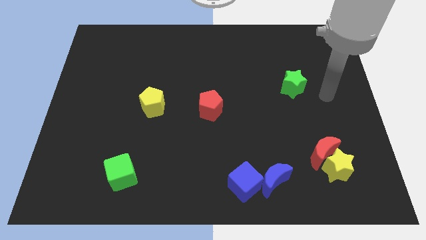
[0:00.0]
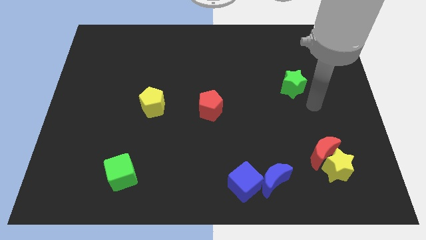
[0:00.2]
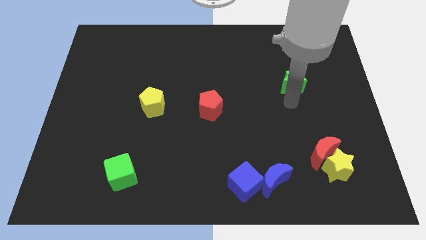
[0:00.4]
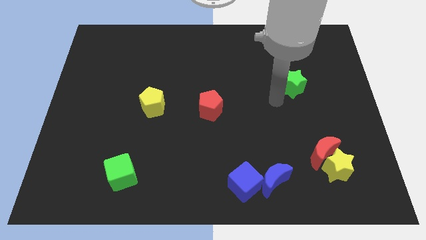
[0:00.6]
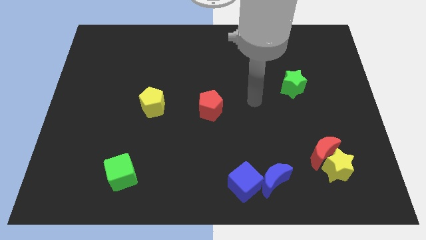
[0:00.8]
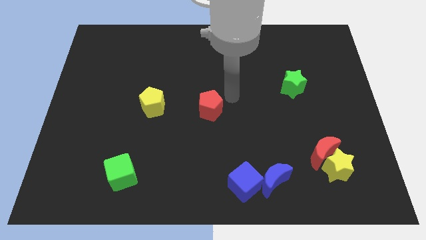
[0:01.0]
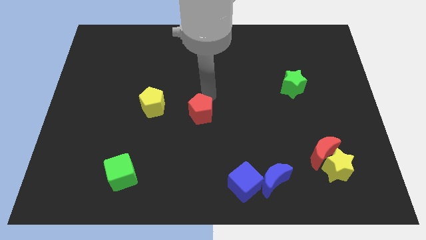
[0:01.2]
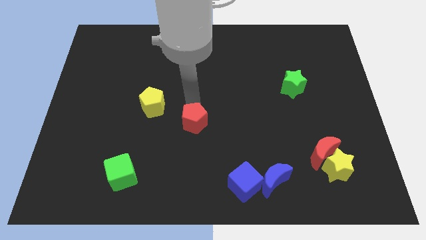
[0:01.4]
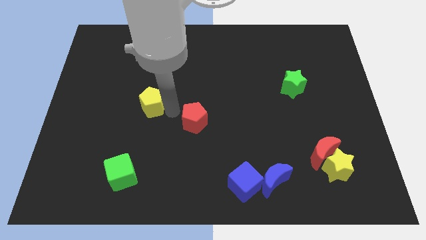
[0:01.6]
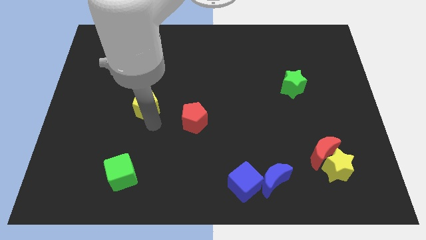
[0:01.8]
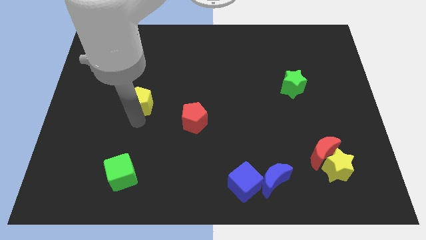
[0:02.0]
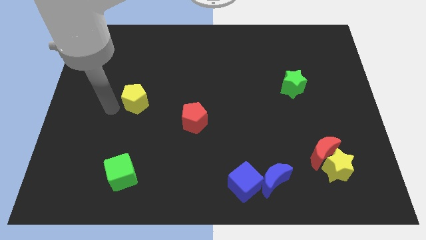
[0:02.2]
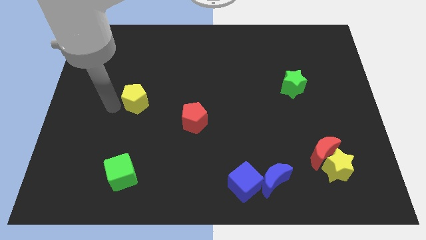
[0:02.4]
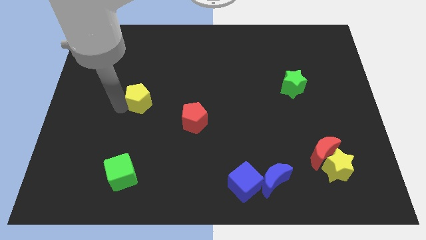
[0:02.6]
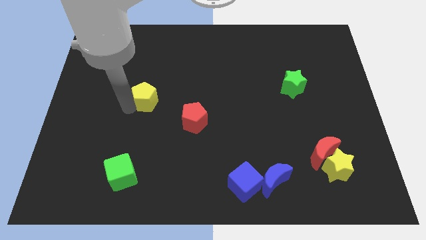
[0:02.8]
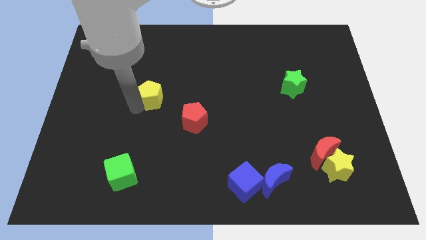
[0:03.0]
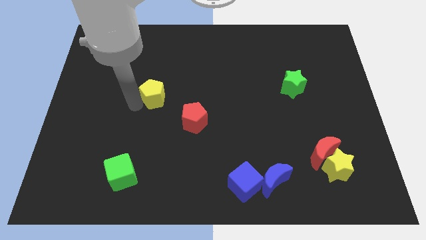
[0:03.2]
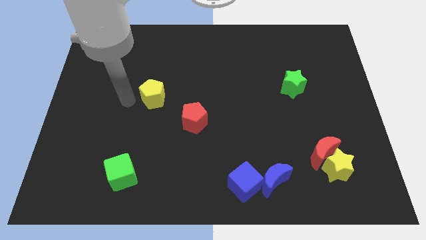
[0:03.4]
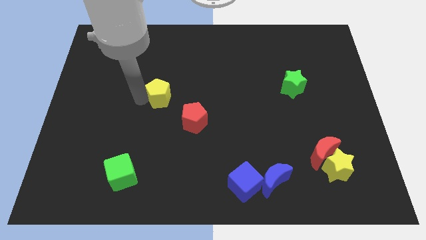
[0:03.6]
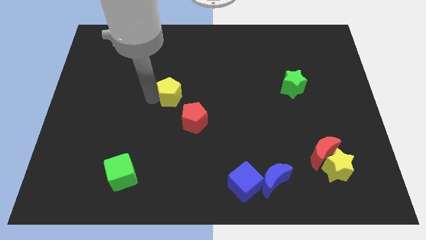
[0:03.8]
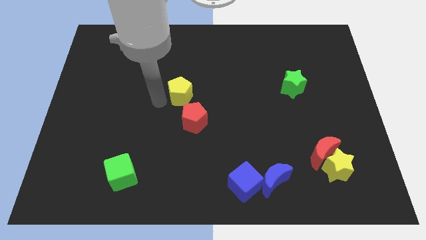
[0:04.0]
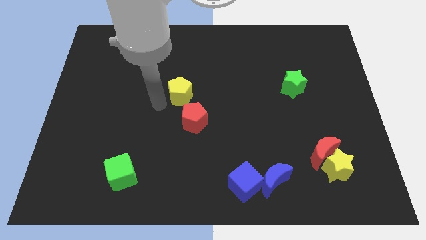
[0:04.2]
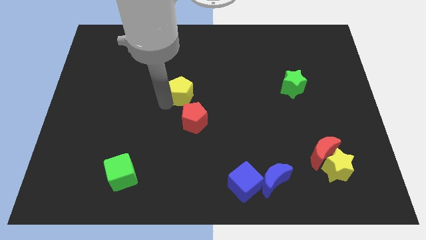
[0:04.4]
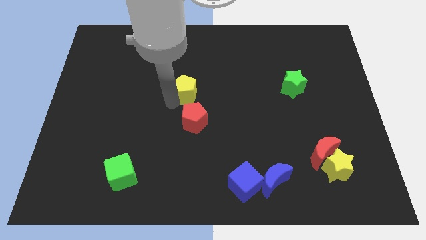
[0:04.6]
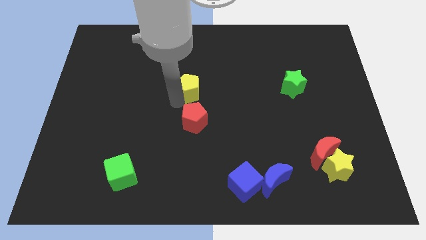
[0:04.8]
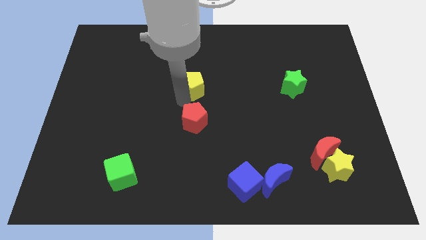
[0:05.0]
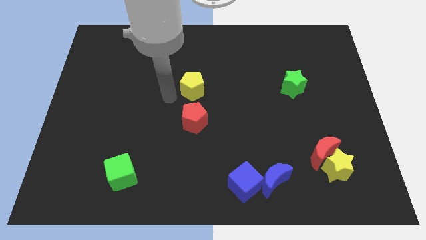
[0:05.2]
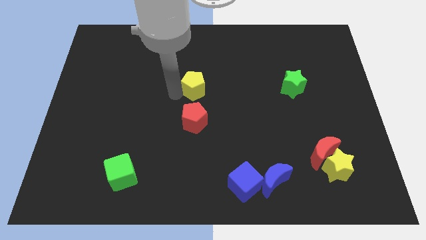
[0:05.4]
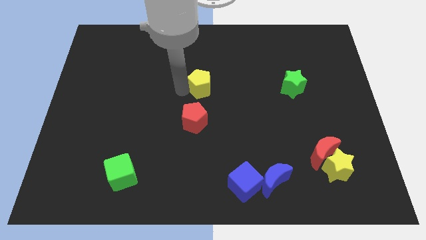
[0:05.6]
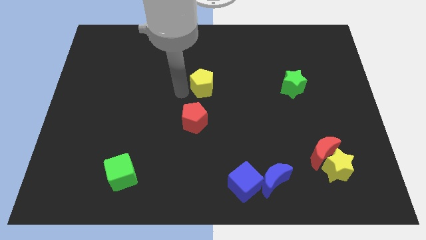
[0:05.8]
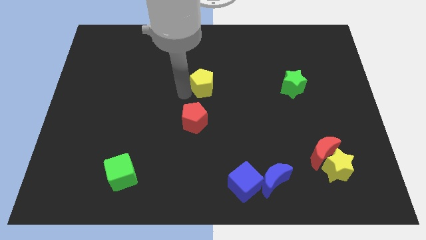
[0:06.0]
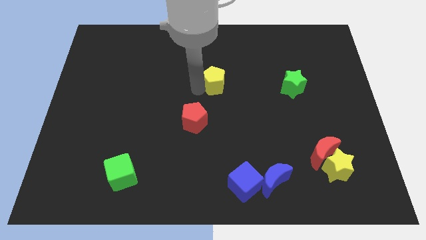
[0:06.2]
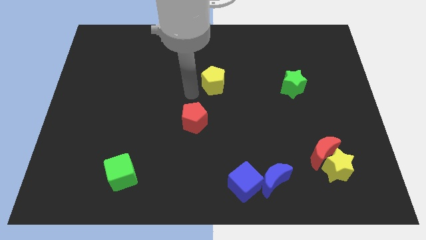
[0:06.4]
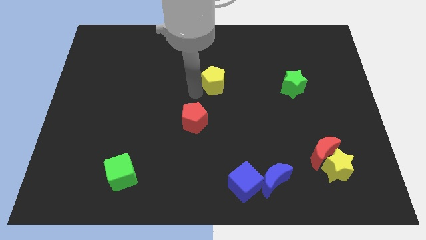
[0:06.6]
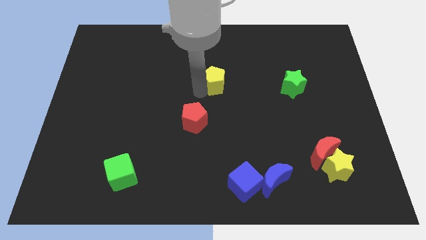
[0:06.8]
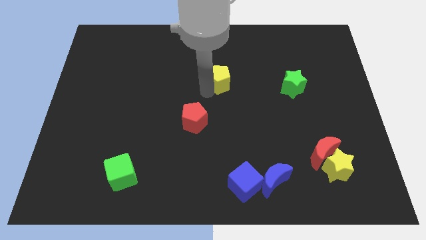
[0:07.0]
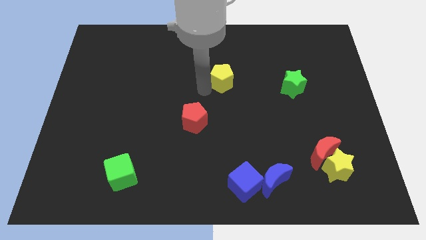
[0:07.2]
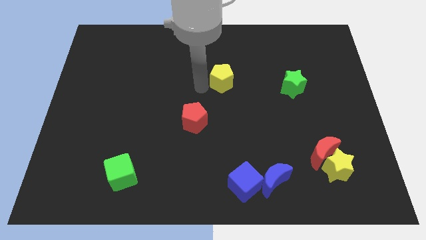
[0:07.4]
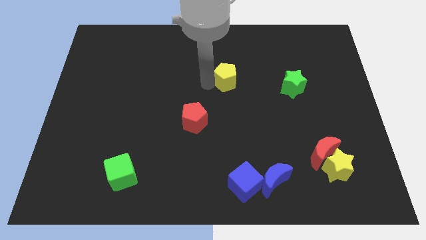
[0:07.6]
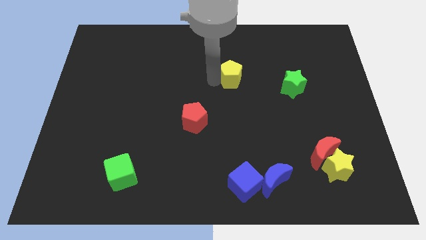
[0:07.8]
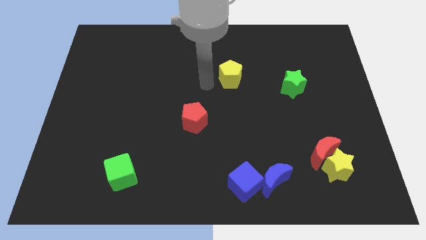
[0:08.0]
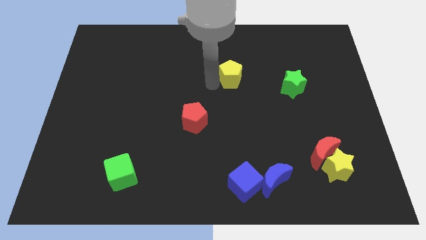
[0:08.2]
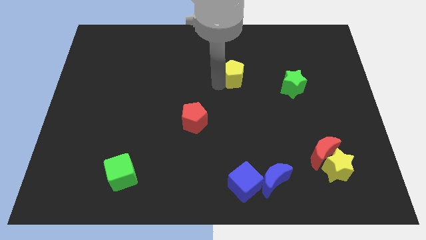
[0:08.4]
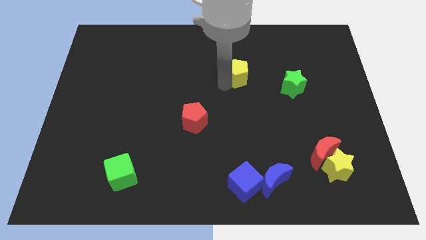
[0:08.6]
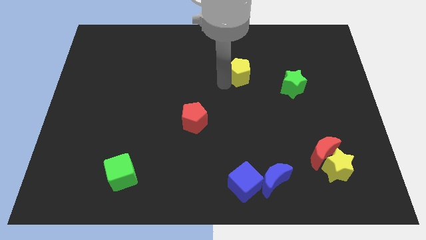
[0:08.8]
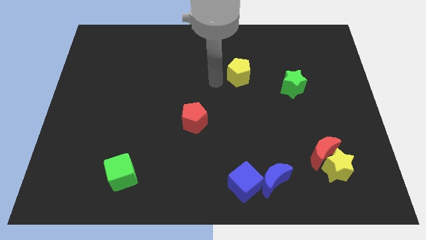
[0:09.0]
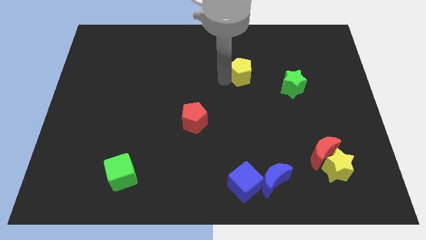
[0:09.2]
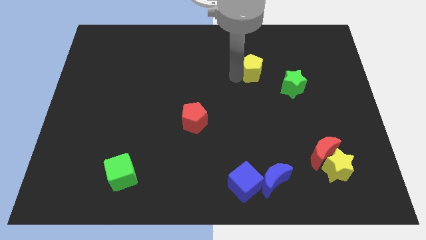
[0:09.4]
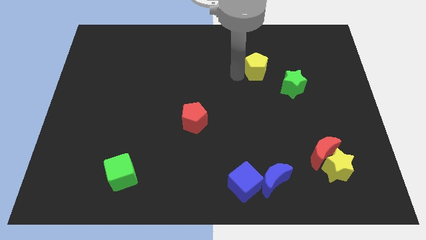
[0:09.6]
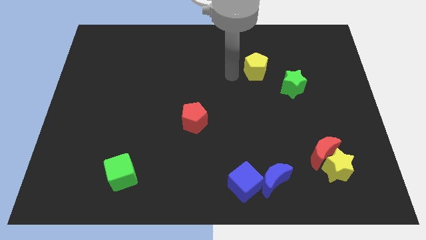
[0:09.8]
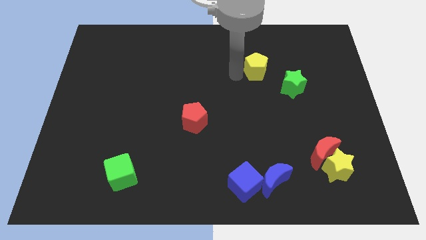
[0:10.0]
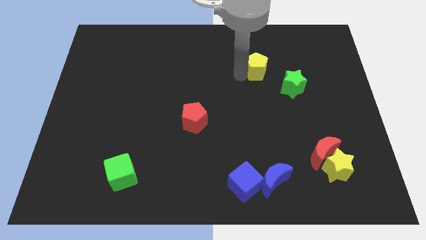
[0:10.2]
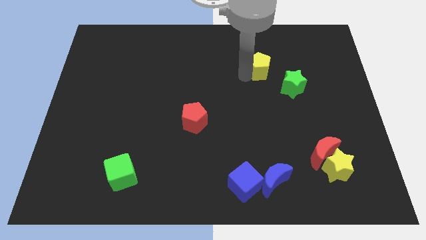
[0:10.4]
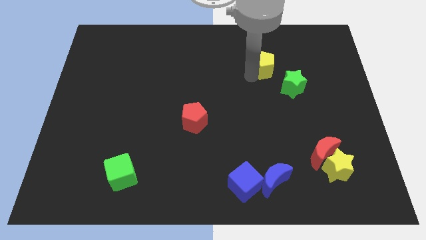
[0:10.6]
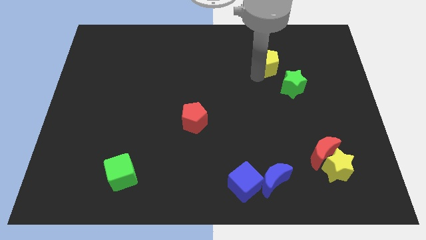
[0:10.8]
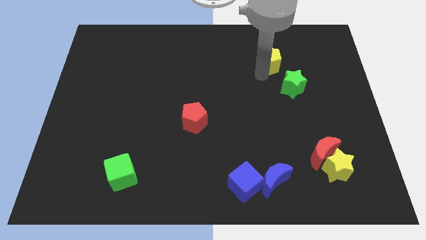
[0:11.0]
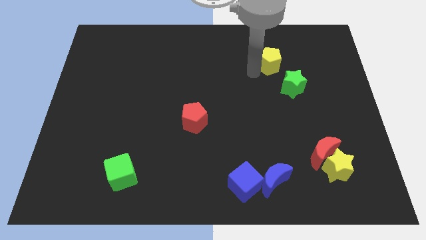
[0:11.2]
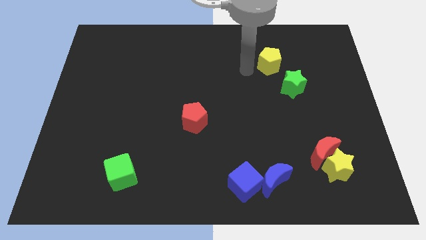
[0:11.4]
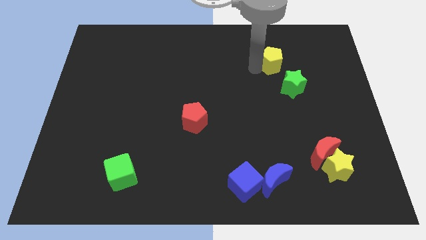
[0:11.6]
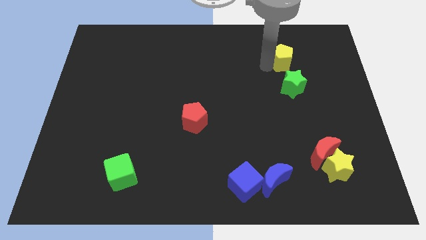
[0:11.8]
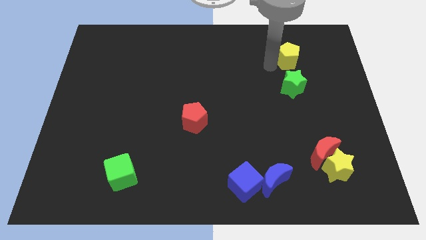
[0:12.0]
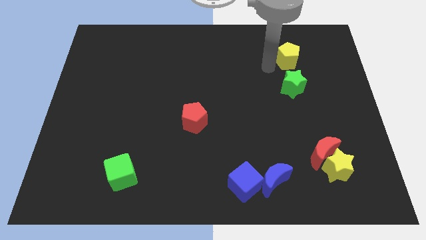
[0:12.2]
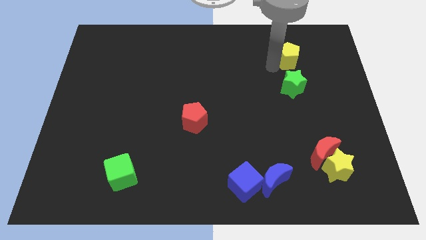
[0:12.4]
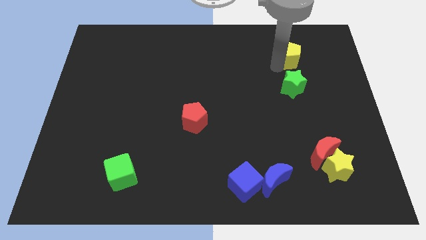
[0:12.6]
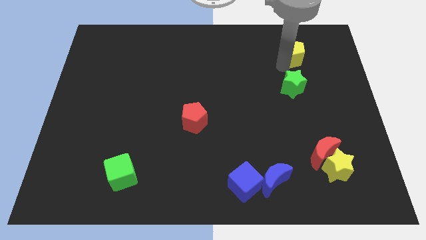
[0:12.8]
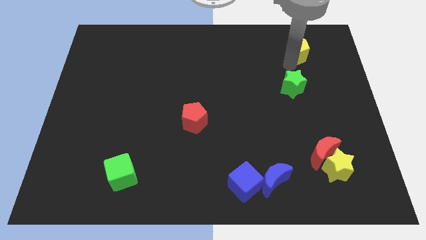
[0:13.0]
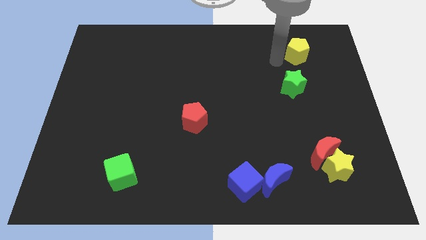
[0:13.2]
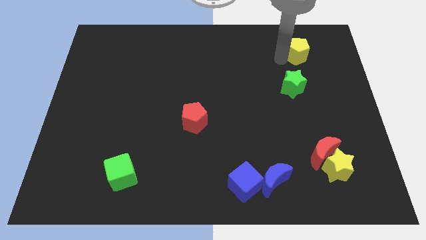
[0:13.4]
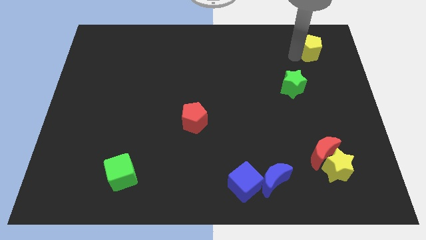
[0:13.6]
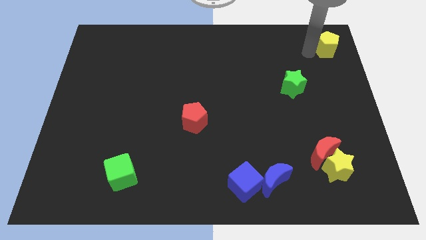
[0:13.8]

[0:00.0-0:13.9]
slide the yellow pentagon to the top right
